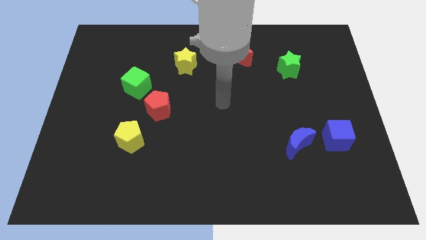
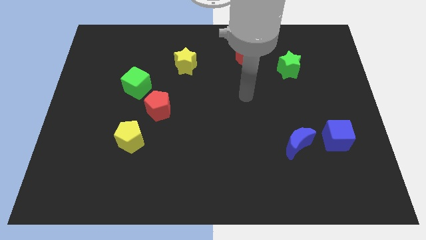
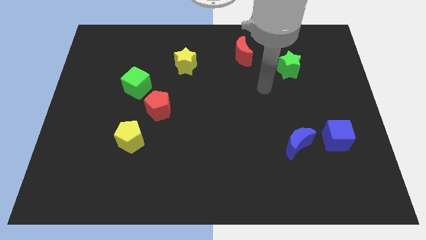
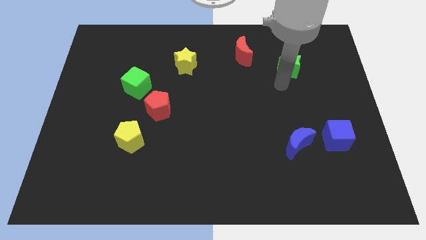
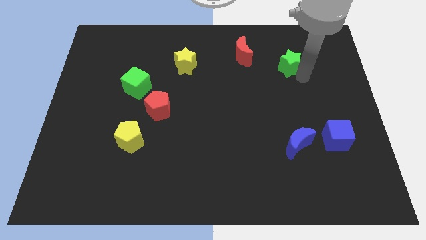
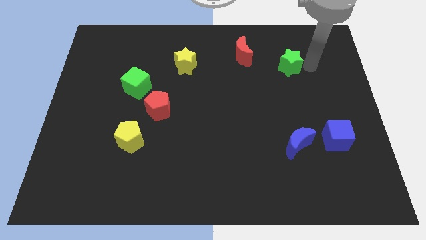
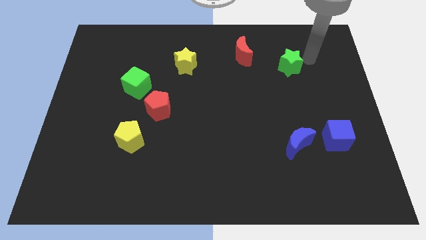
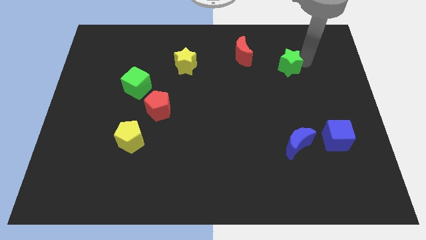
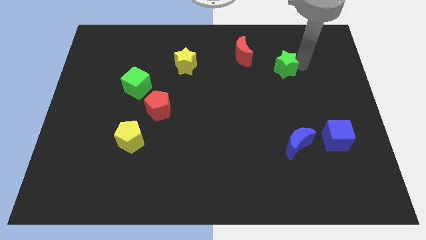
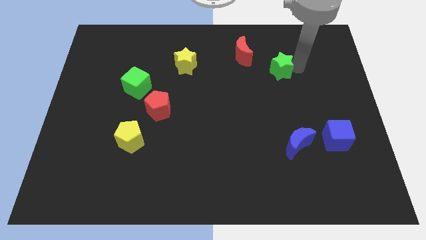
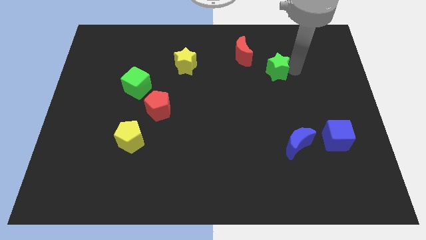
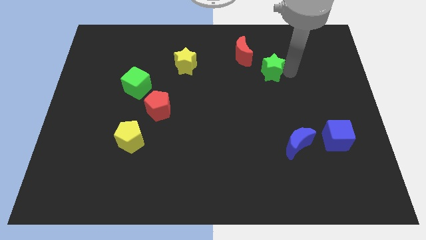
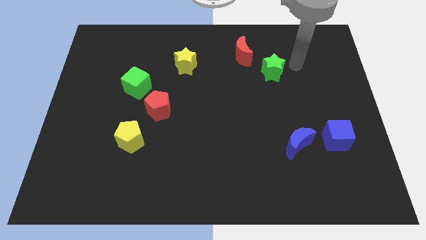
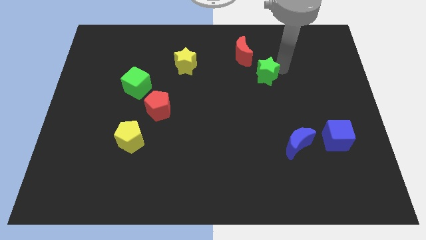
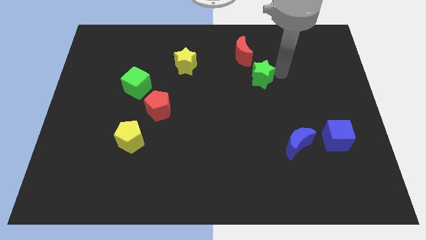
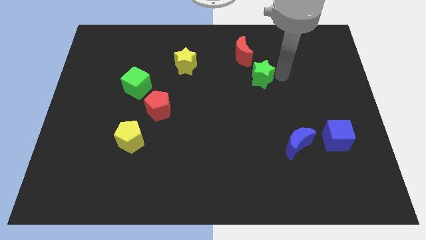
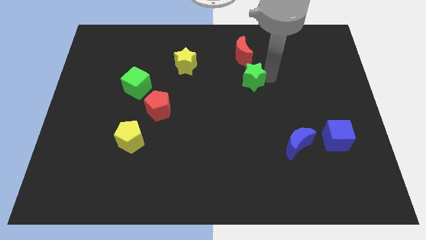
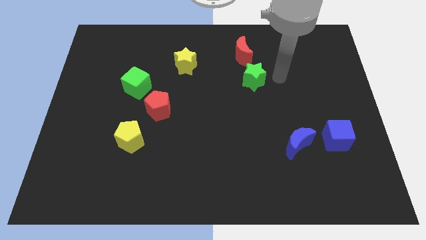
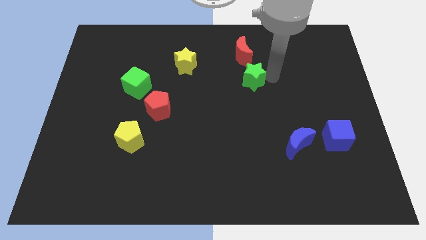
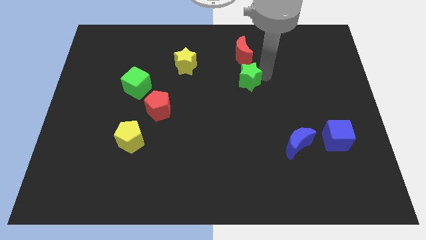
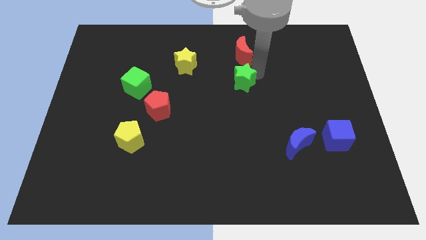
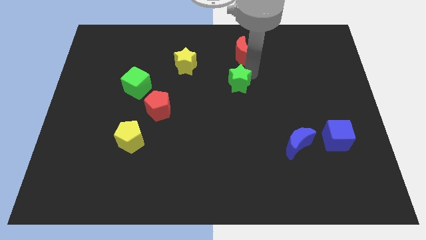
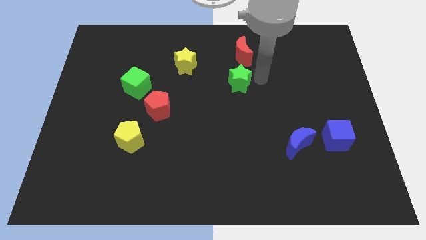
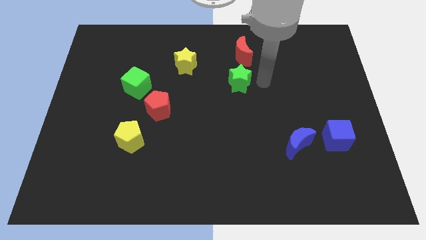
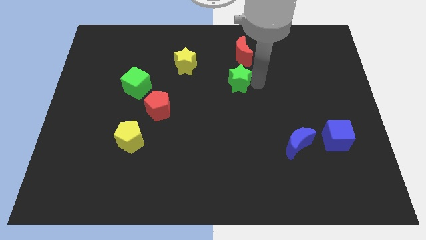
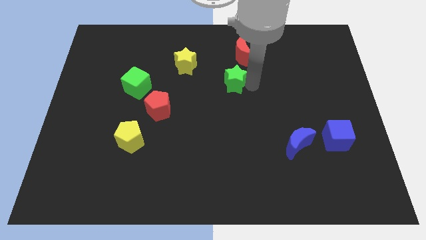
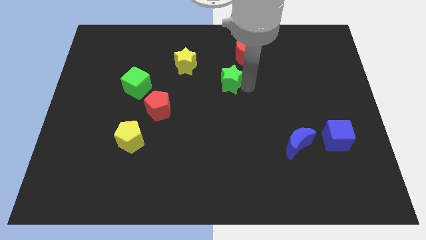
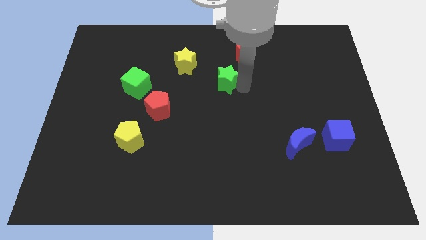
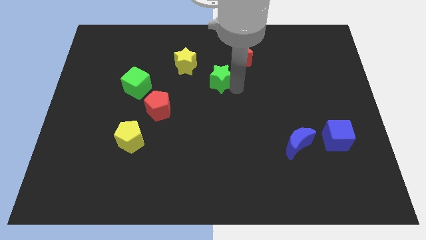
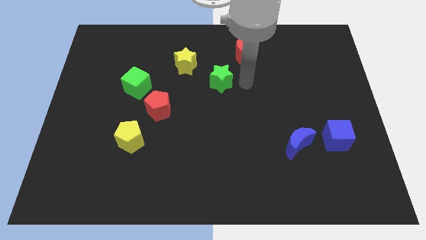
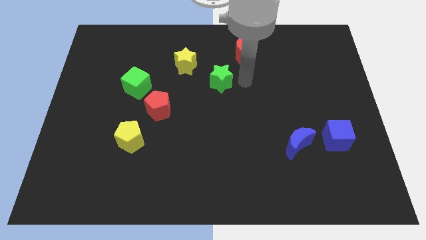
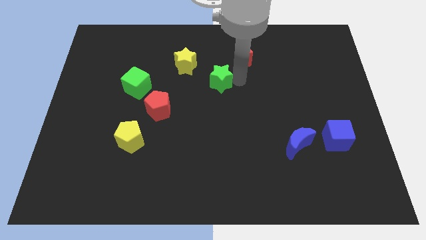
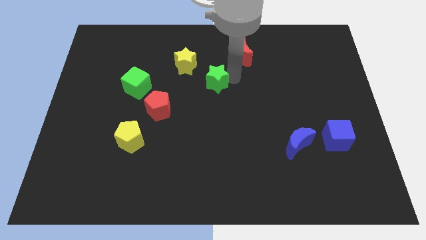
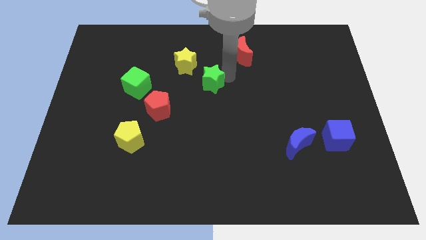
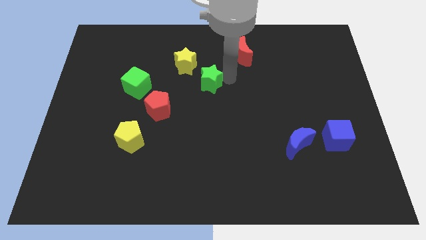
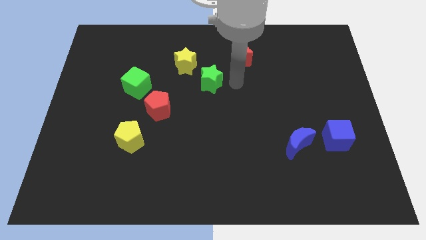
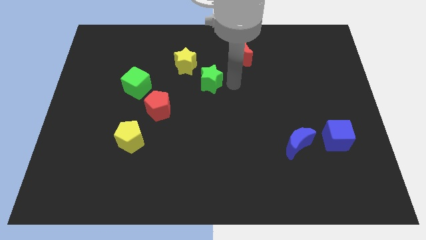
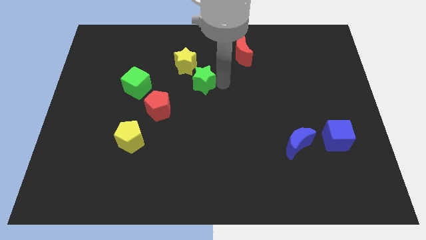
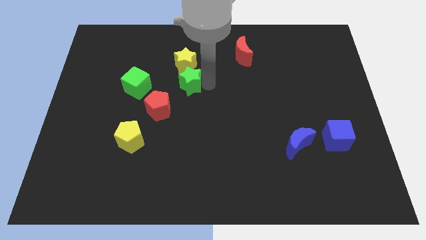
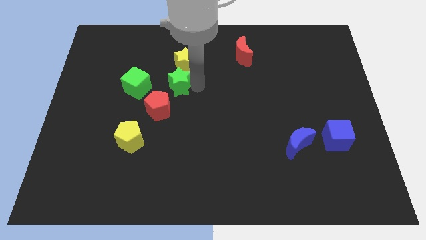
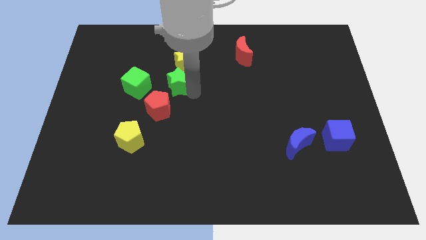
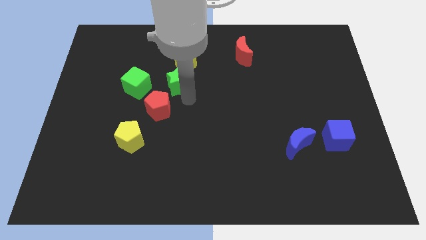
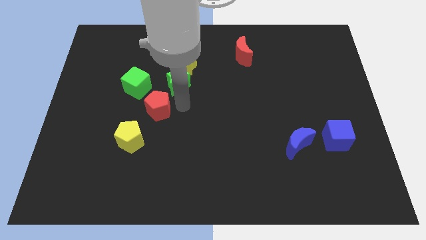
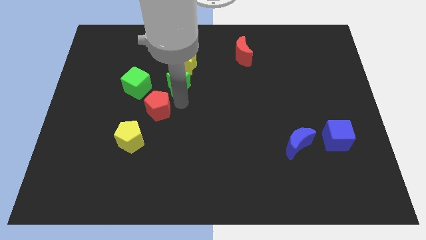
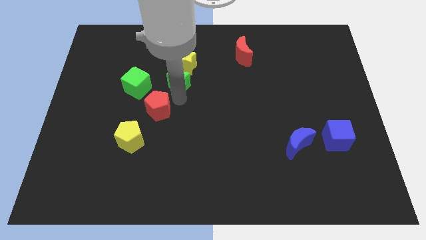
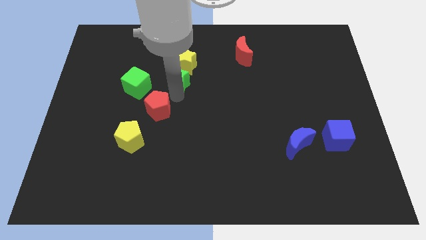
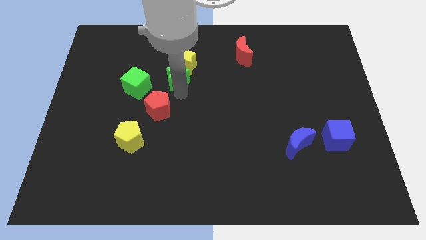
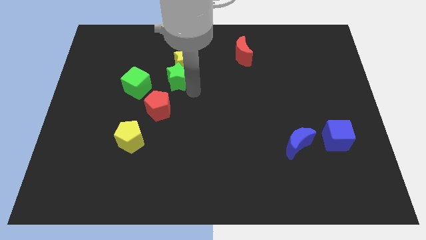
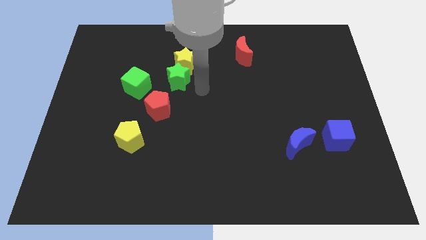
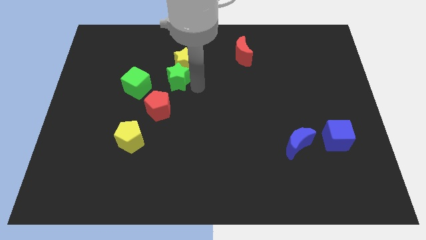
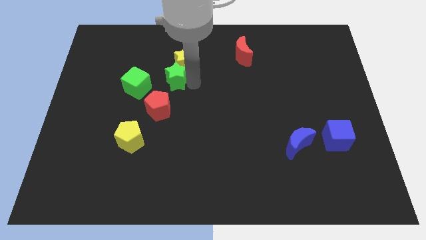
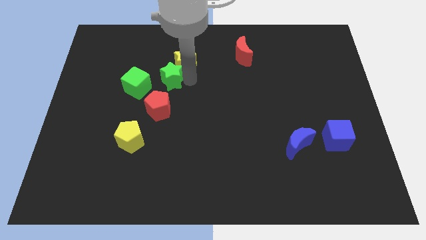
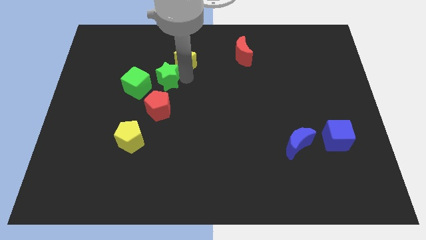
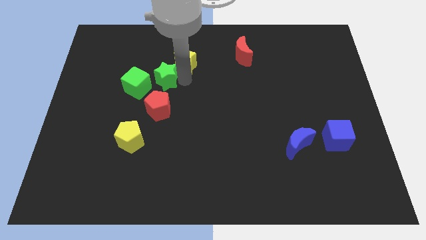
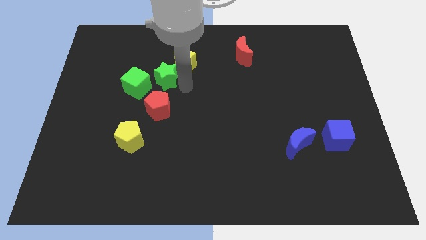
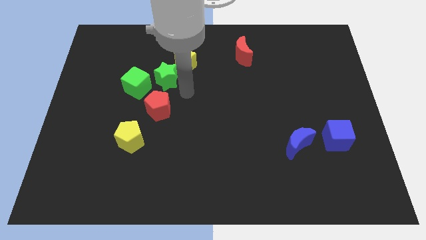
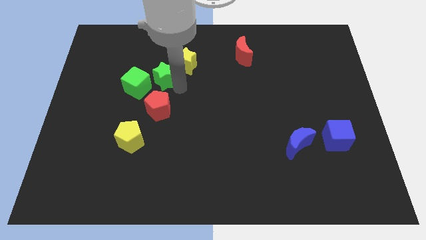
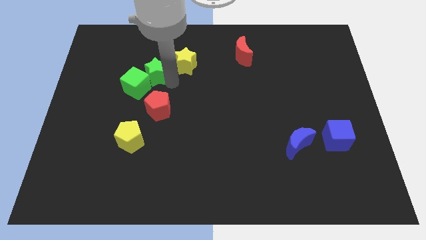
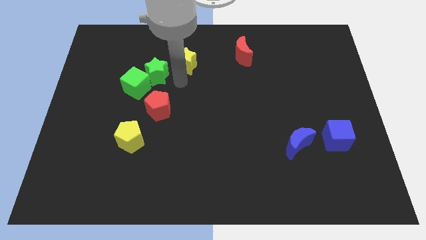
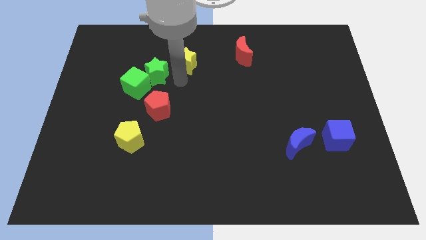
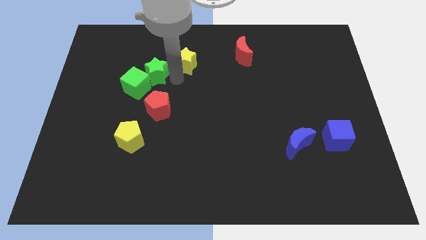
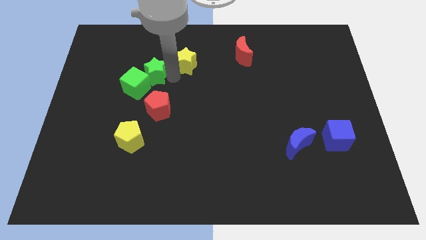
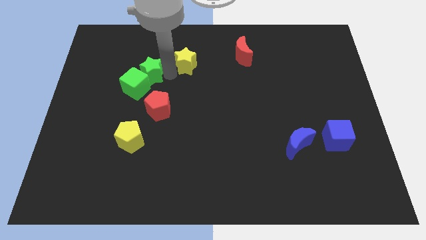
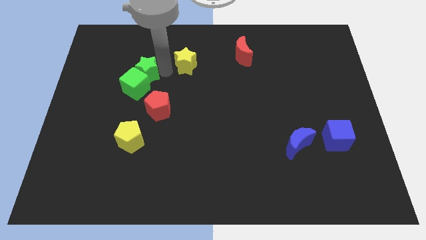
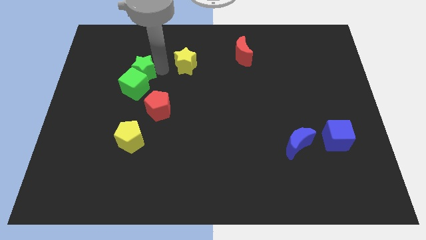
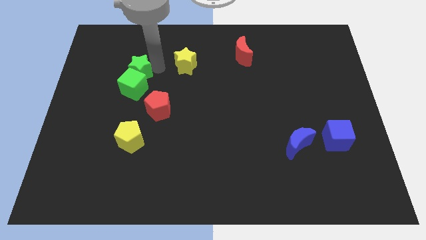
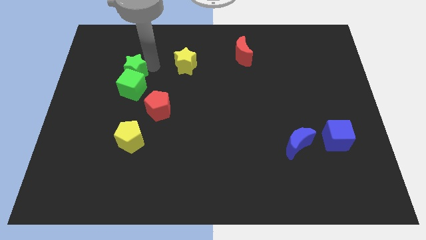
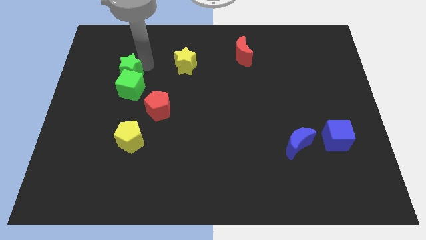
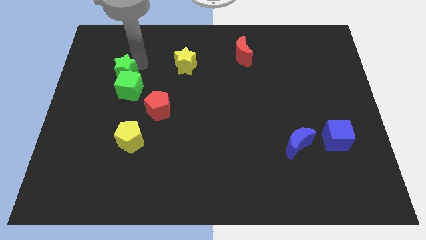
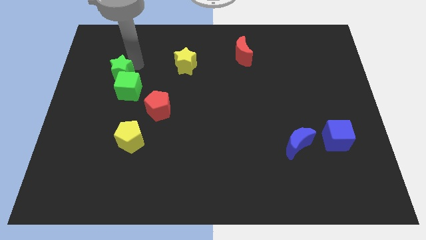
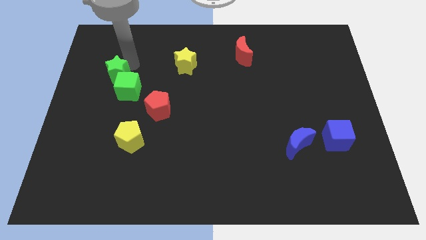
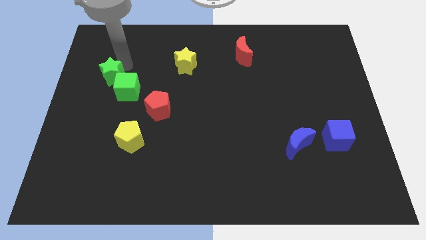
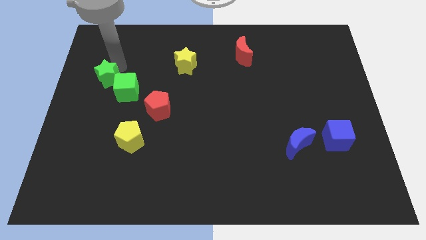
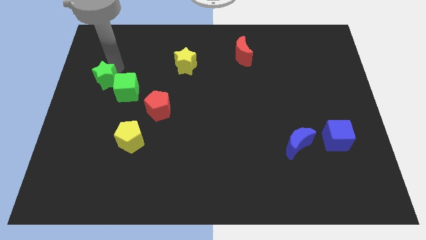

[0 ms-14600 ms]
move the green star to the center left
